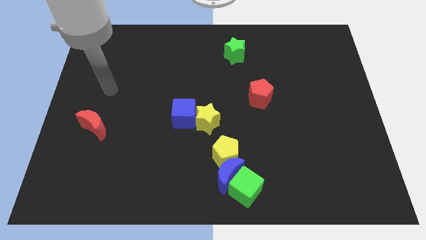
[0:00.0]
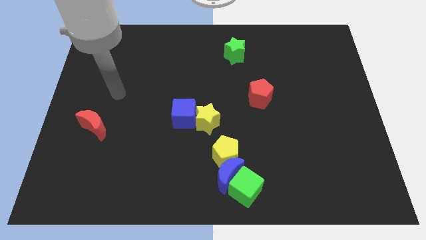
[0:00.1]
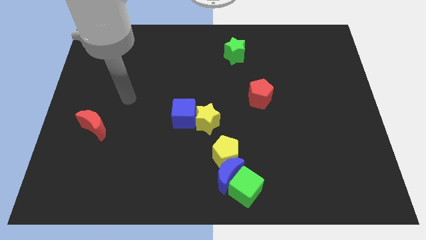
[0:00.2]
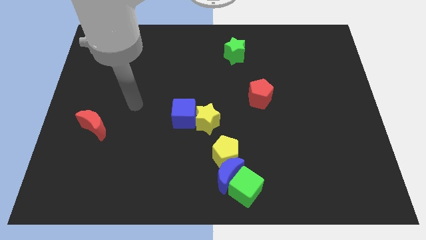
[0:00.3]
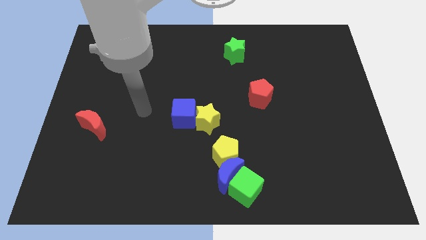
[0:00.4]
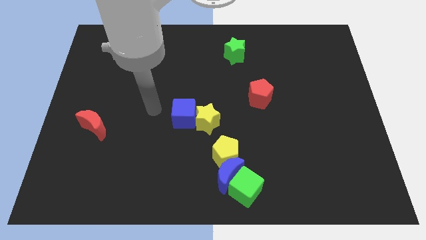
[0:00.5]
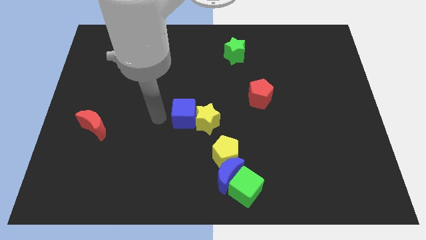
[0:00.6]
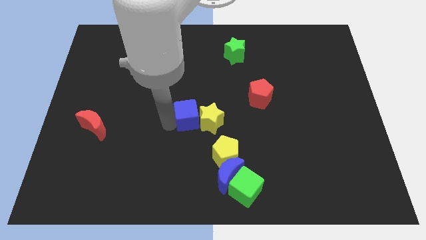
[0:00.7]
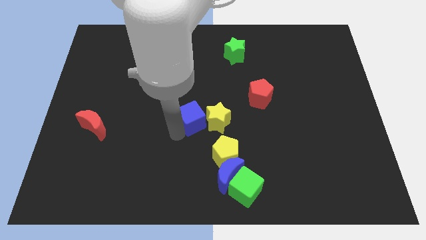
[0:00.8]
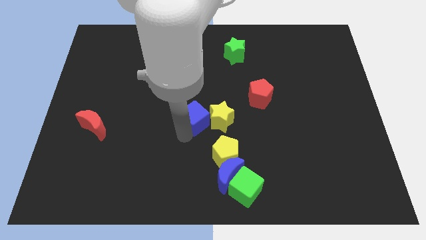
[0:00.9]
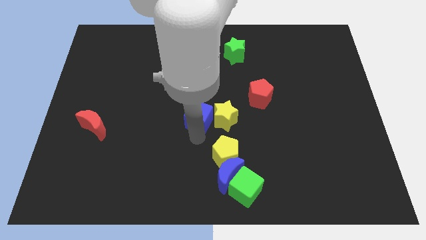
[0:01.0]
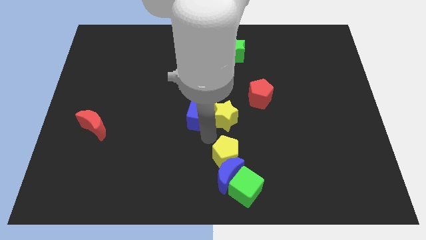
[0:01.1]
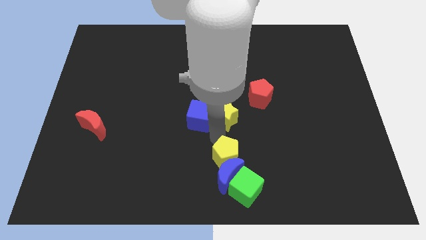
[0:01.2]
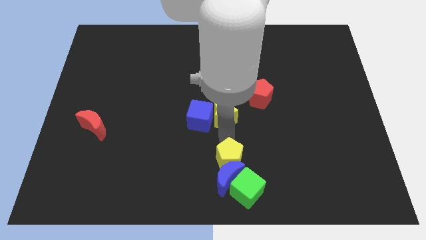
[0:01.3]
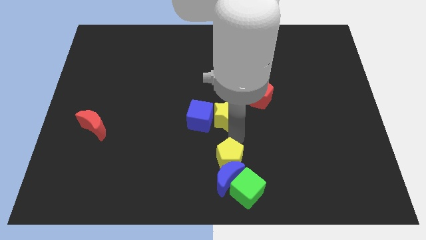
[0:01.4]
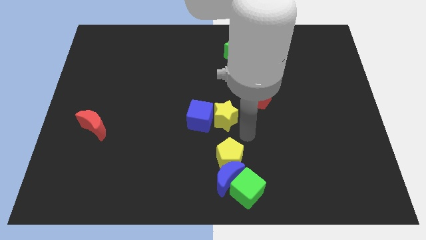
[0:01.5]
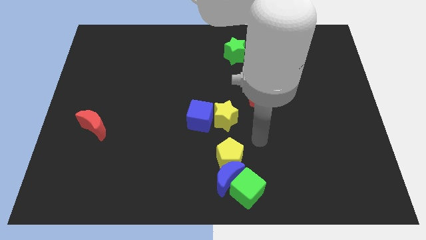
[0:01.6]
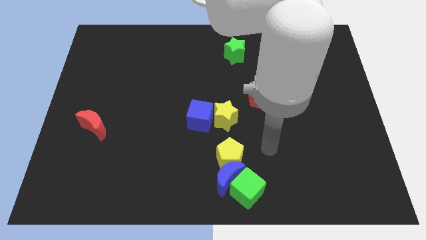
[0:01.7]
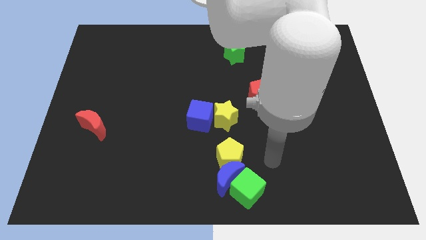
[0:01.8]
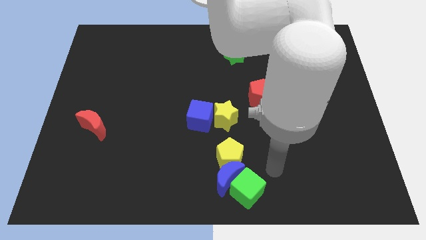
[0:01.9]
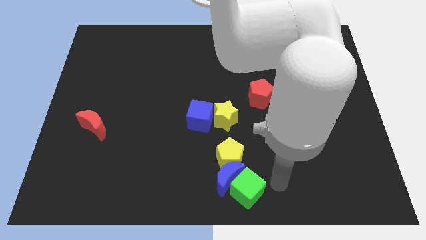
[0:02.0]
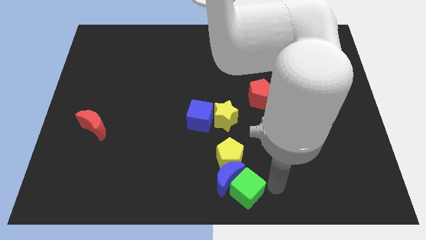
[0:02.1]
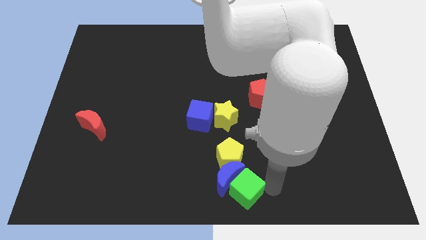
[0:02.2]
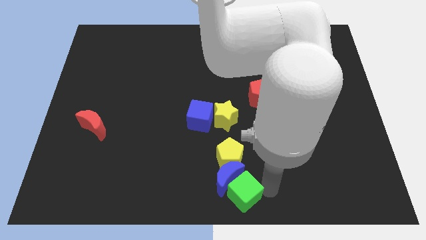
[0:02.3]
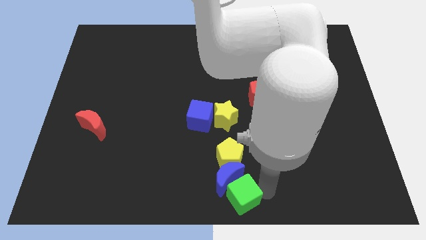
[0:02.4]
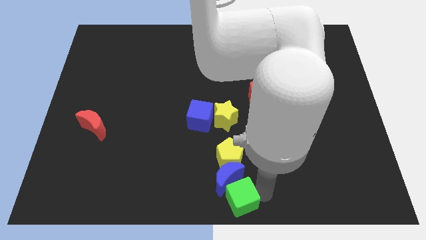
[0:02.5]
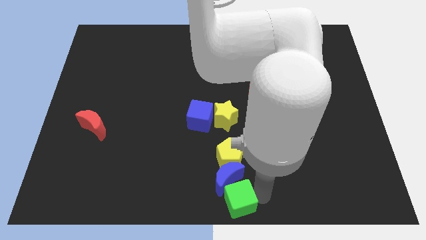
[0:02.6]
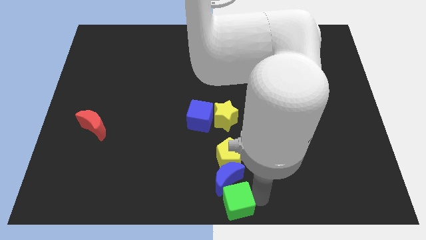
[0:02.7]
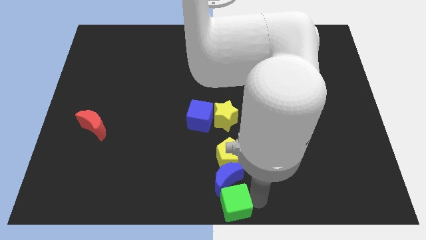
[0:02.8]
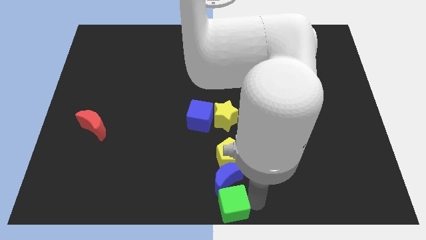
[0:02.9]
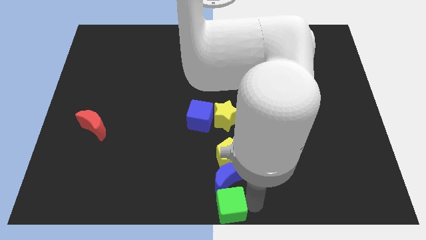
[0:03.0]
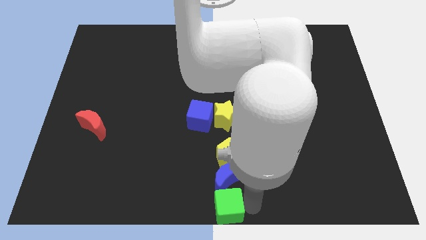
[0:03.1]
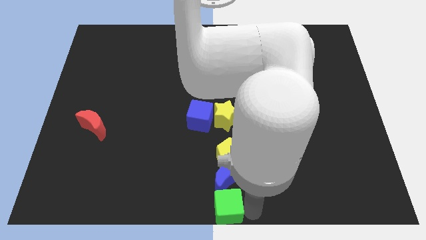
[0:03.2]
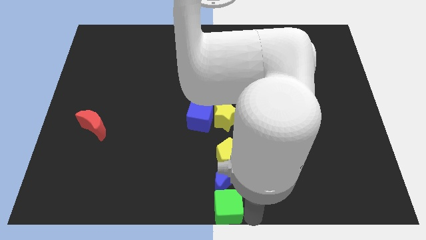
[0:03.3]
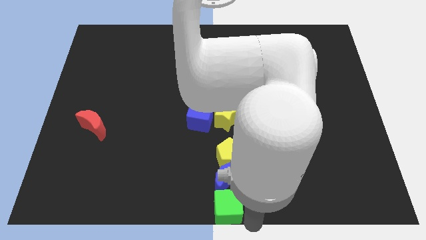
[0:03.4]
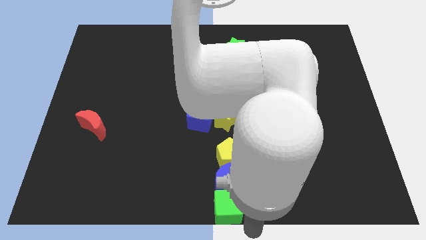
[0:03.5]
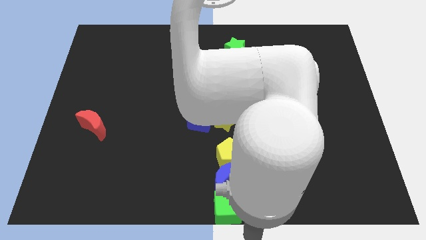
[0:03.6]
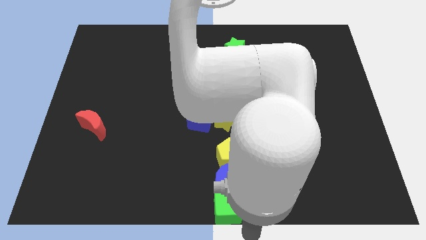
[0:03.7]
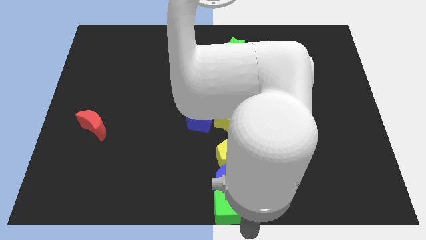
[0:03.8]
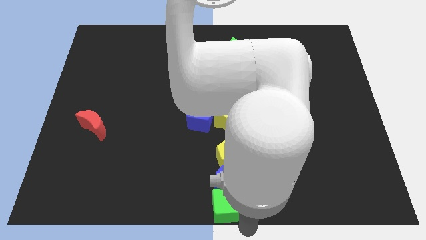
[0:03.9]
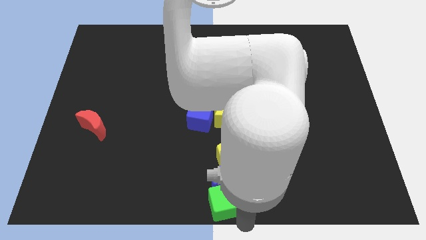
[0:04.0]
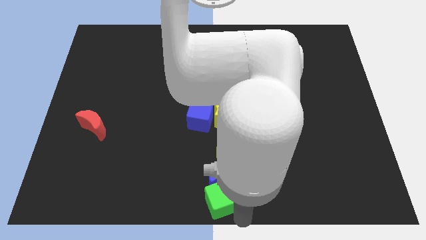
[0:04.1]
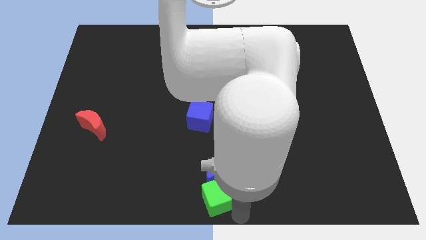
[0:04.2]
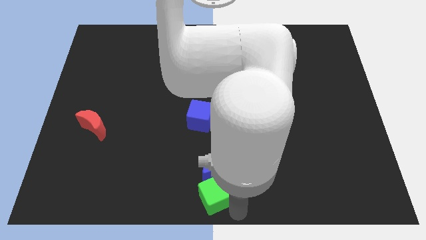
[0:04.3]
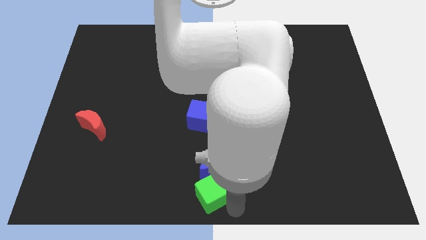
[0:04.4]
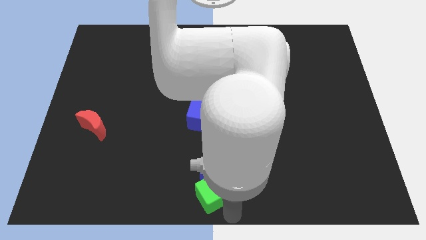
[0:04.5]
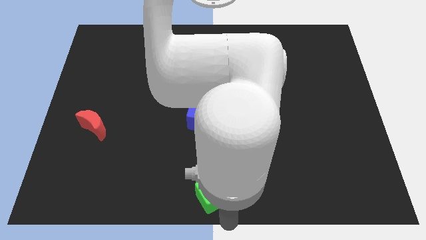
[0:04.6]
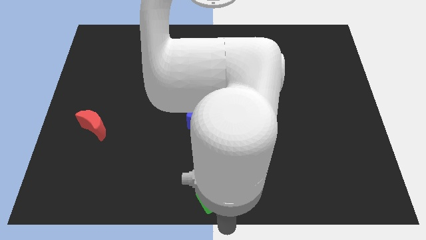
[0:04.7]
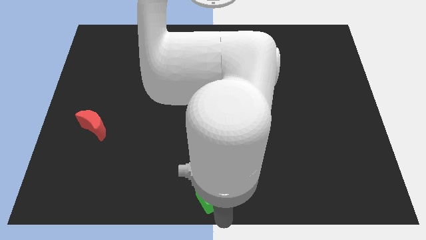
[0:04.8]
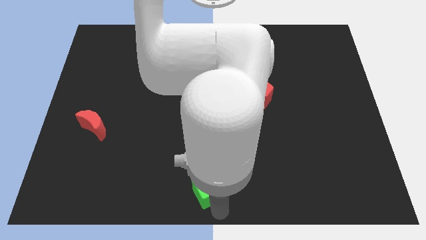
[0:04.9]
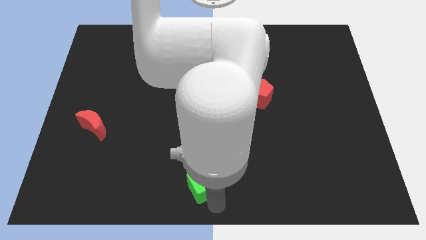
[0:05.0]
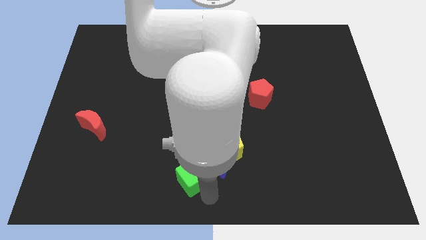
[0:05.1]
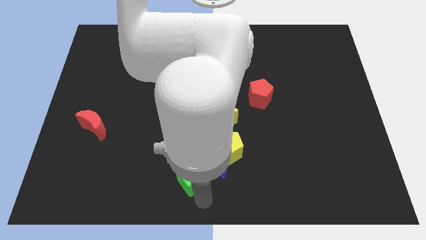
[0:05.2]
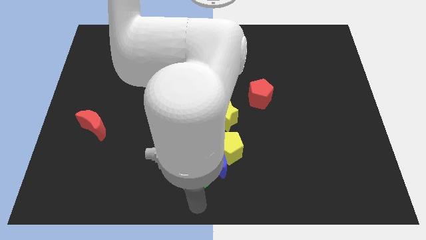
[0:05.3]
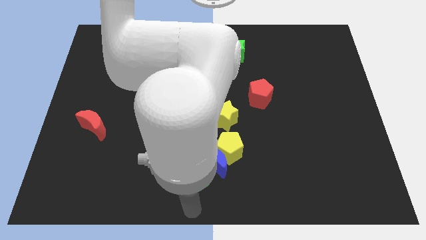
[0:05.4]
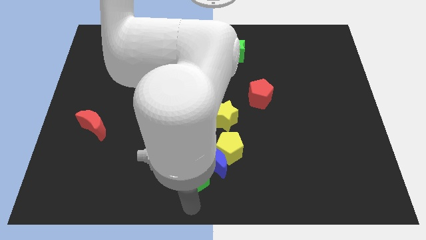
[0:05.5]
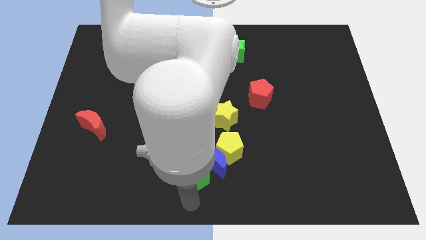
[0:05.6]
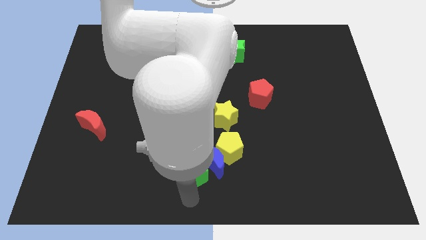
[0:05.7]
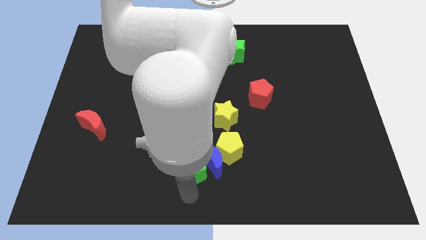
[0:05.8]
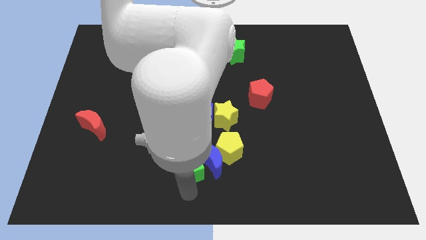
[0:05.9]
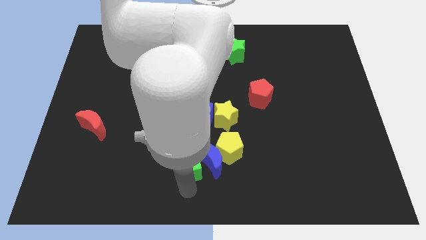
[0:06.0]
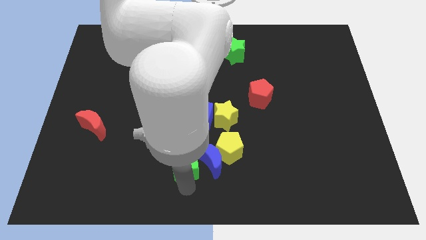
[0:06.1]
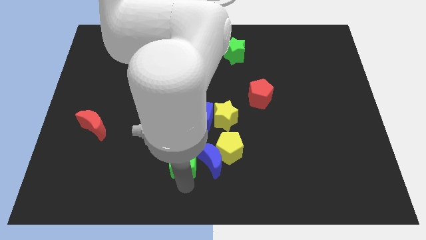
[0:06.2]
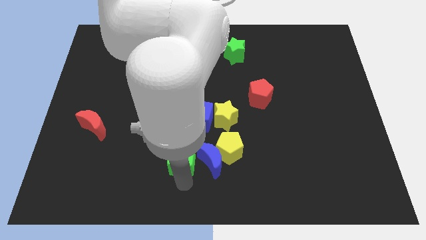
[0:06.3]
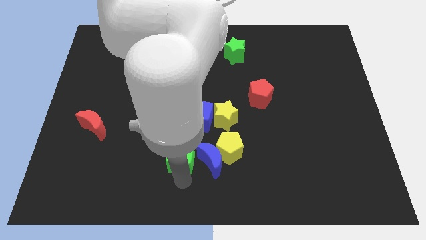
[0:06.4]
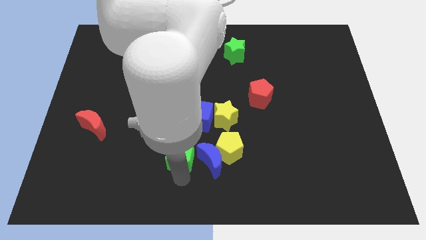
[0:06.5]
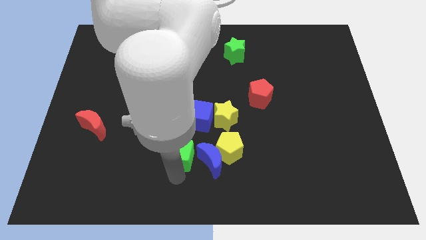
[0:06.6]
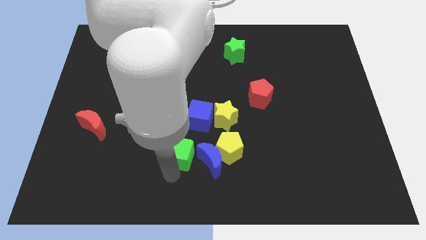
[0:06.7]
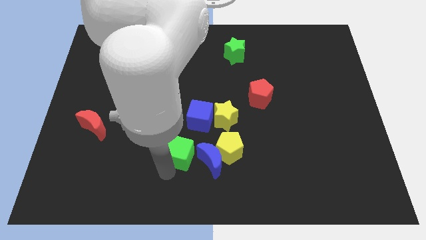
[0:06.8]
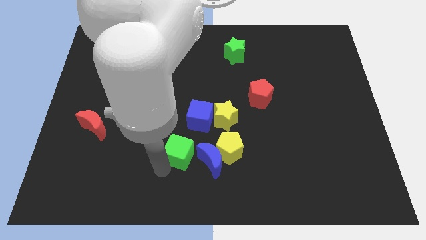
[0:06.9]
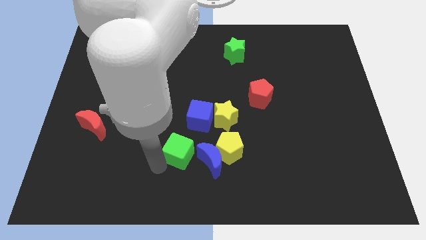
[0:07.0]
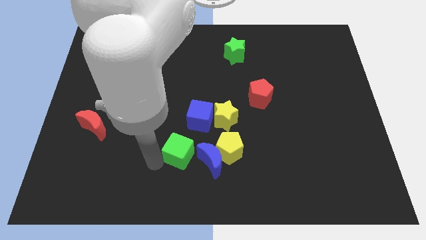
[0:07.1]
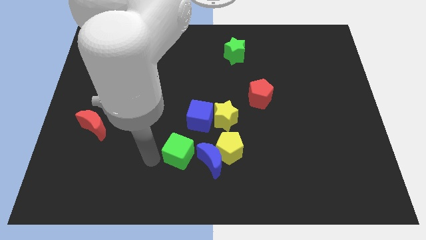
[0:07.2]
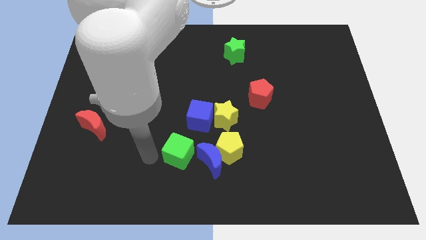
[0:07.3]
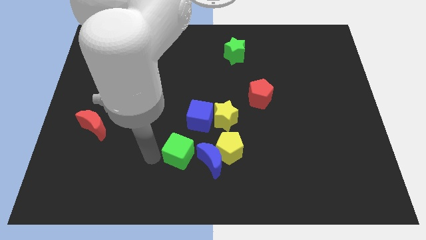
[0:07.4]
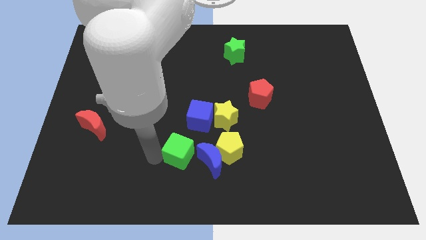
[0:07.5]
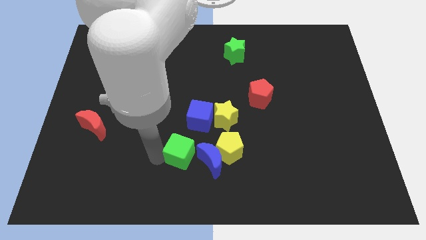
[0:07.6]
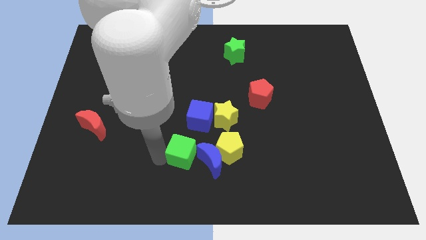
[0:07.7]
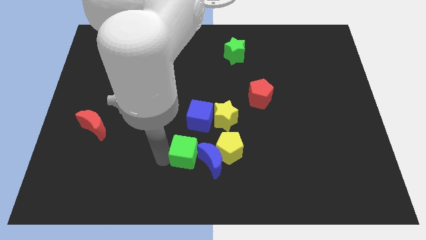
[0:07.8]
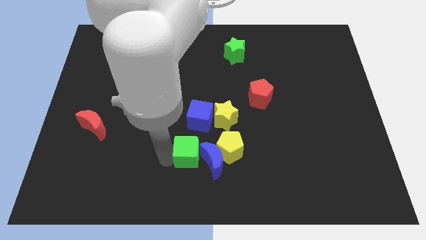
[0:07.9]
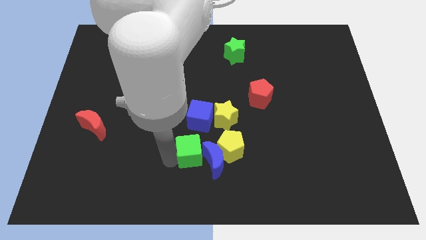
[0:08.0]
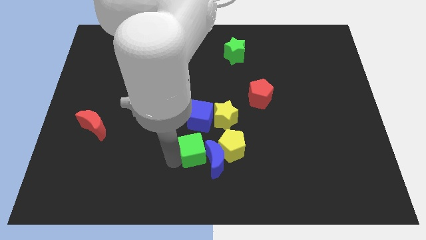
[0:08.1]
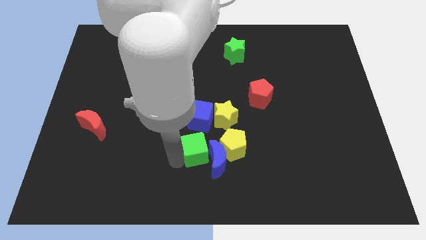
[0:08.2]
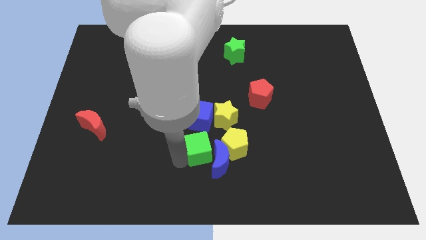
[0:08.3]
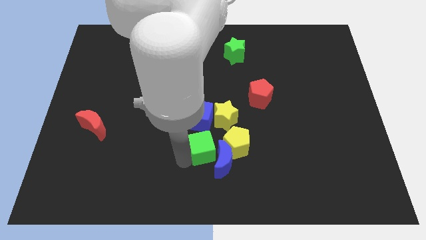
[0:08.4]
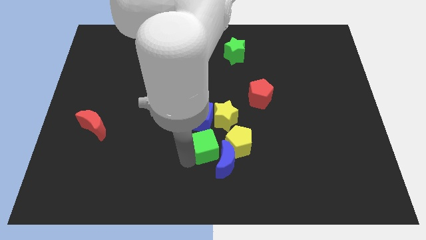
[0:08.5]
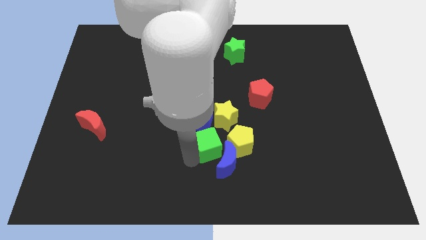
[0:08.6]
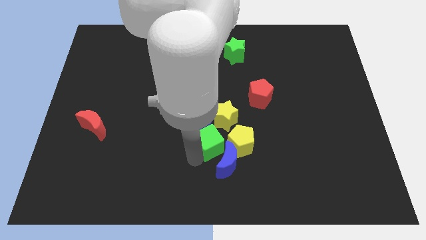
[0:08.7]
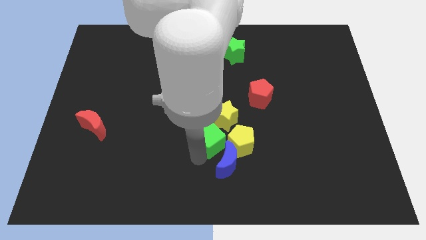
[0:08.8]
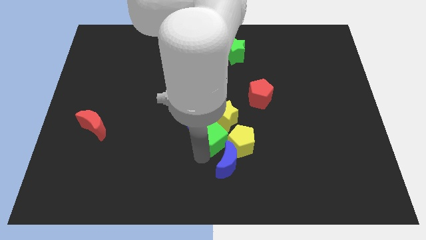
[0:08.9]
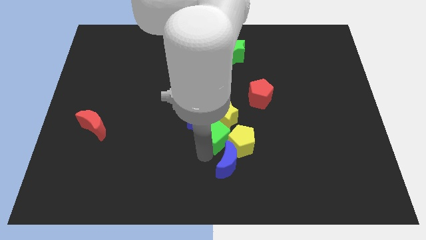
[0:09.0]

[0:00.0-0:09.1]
slide the green cube towards the blue cube
